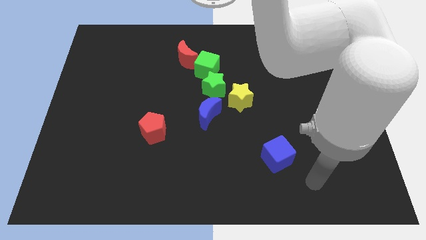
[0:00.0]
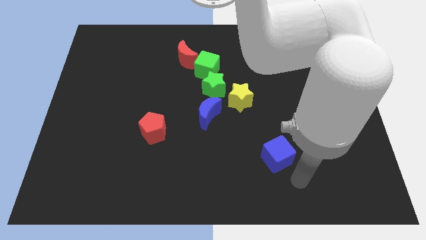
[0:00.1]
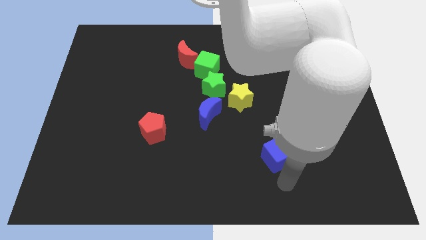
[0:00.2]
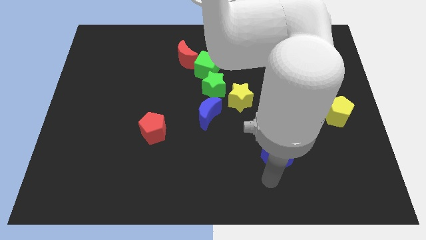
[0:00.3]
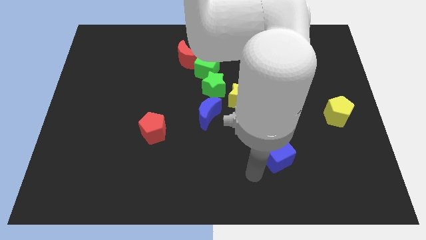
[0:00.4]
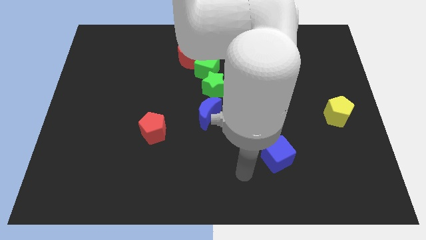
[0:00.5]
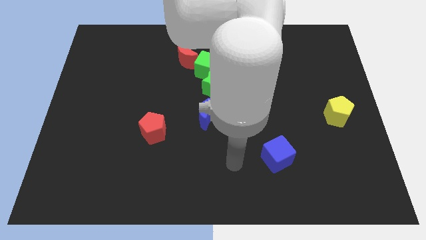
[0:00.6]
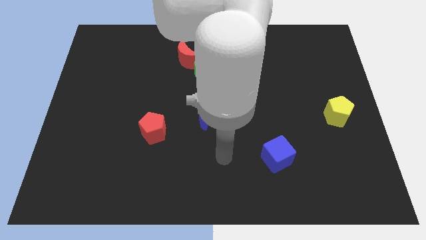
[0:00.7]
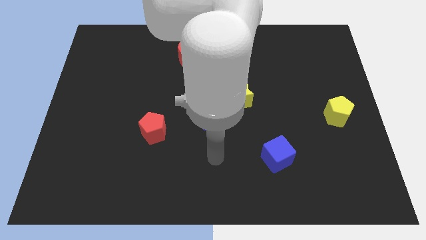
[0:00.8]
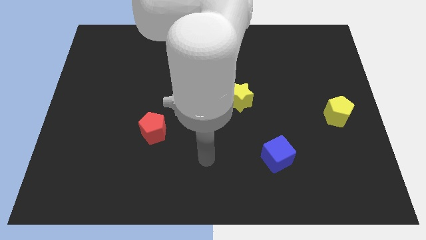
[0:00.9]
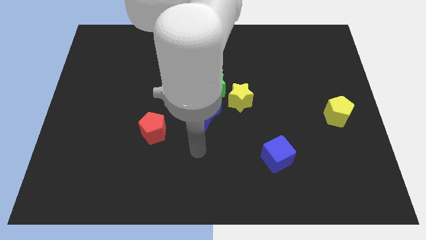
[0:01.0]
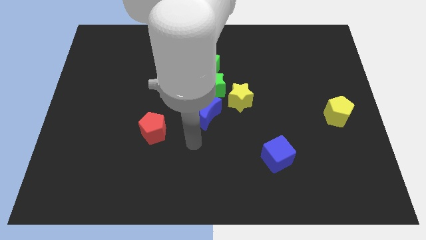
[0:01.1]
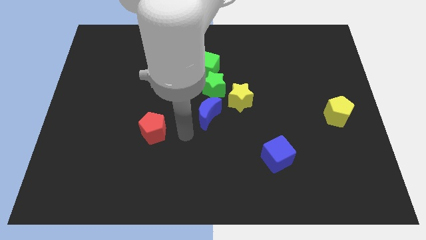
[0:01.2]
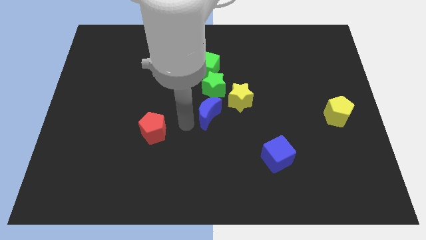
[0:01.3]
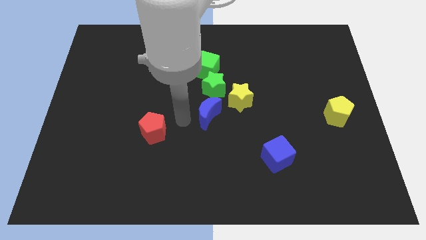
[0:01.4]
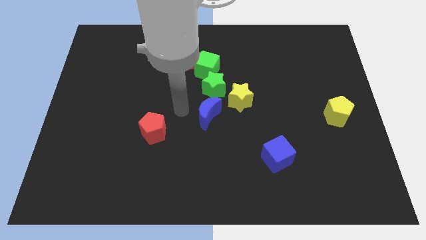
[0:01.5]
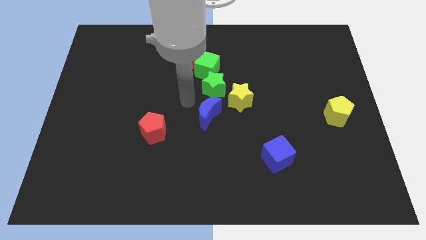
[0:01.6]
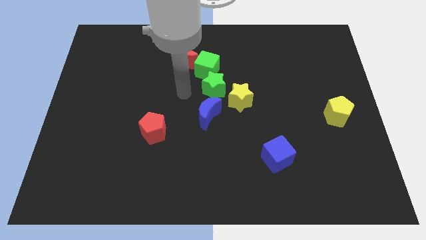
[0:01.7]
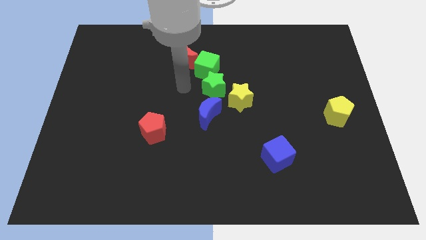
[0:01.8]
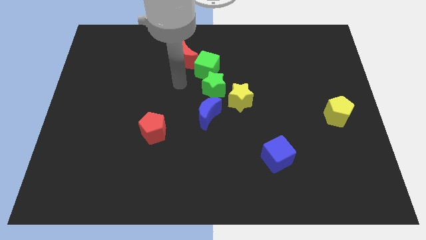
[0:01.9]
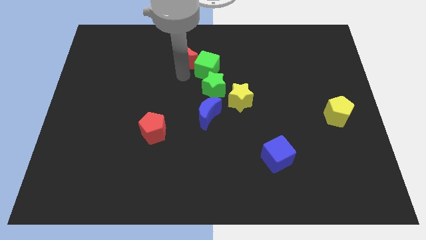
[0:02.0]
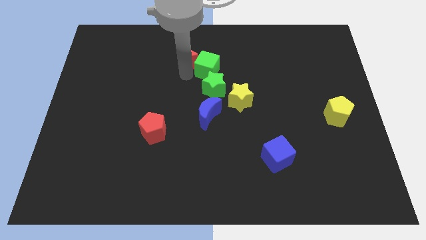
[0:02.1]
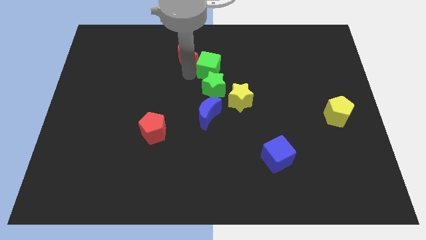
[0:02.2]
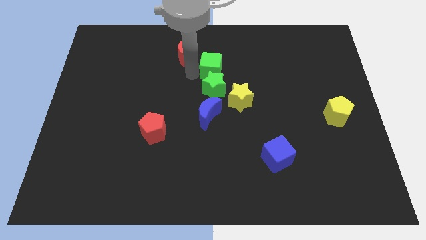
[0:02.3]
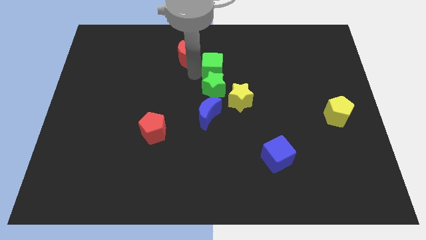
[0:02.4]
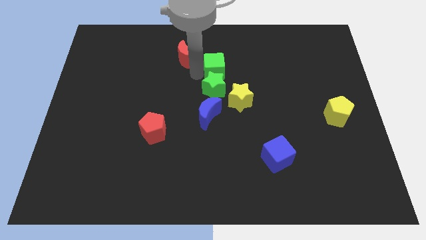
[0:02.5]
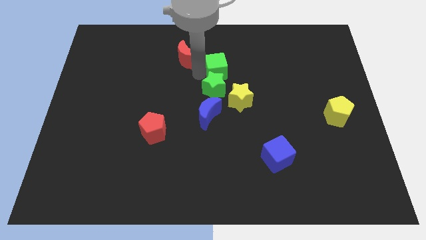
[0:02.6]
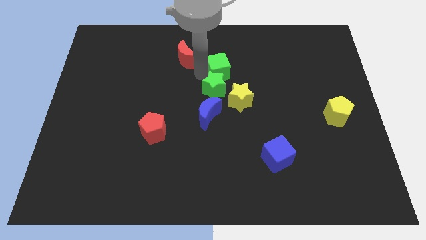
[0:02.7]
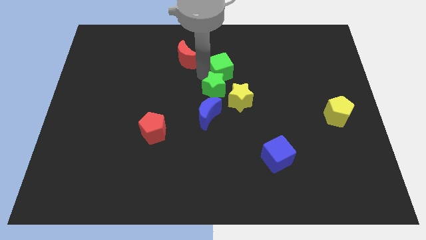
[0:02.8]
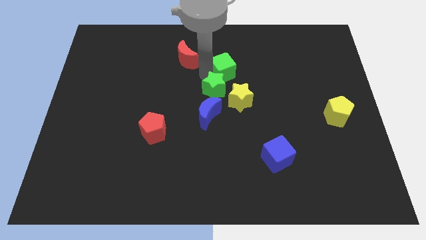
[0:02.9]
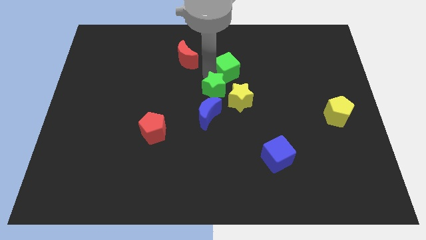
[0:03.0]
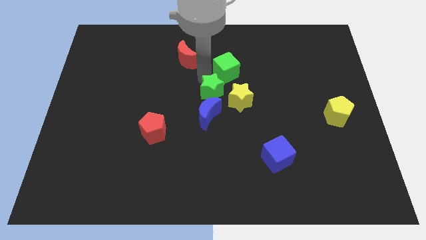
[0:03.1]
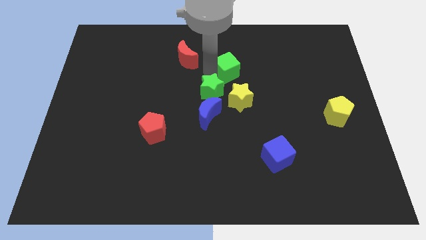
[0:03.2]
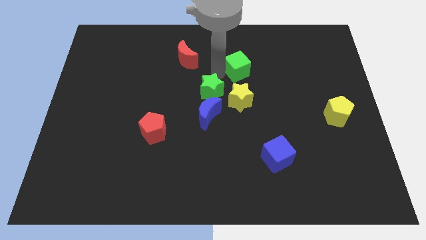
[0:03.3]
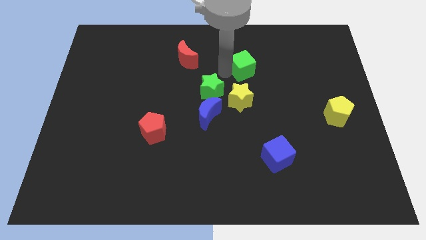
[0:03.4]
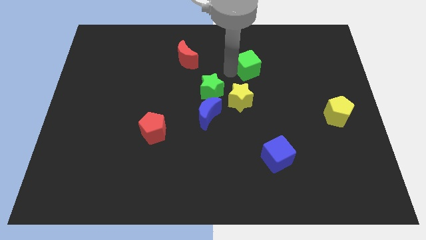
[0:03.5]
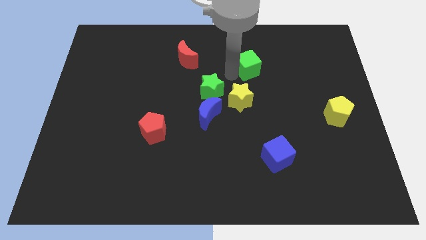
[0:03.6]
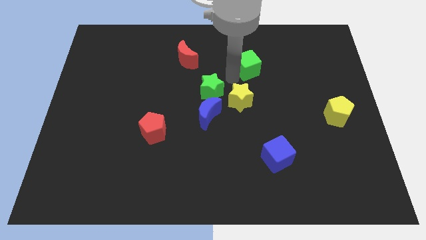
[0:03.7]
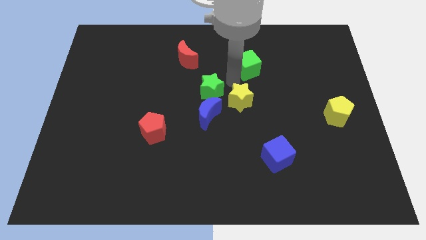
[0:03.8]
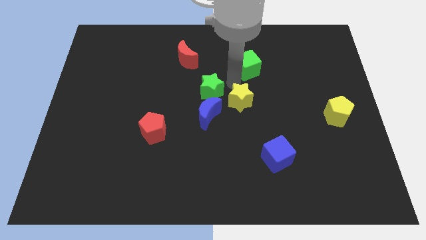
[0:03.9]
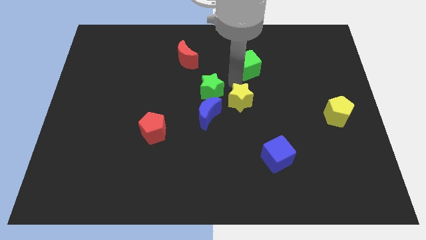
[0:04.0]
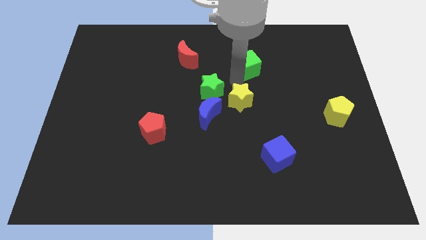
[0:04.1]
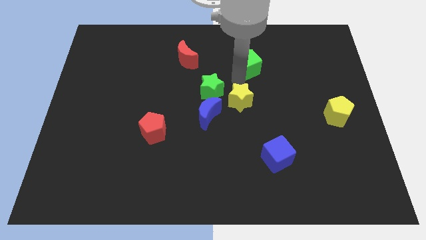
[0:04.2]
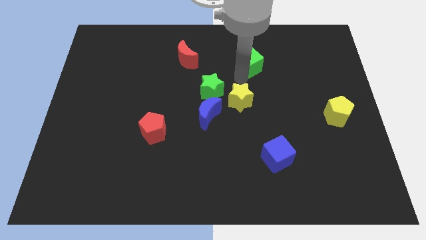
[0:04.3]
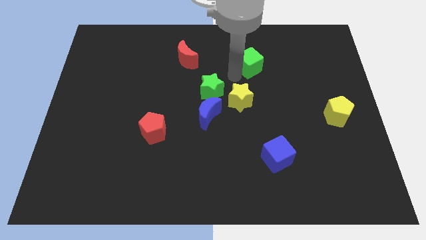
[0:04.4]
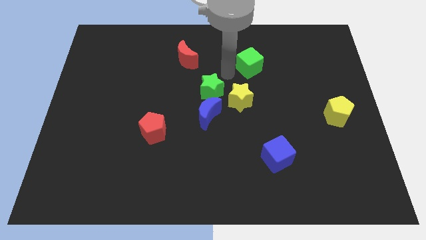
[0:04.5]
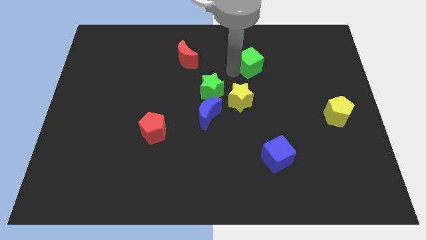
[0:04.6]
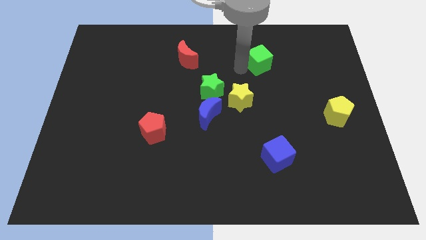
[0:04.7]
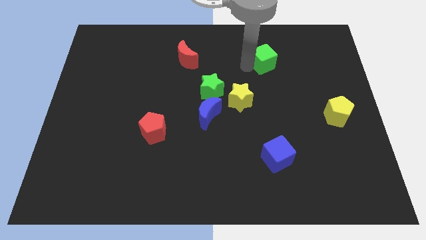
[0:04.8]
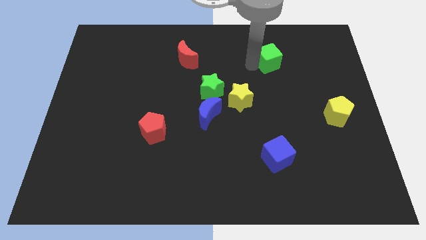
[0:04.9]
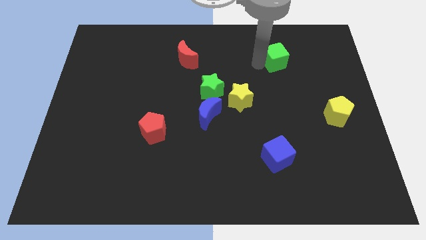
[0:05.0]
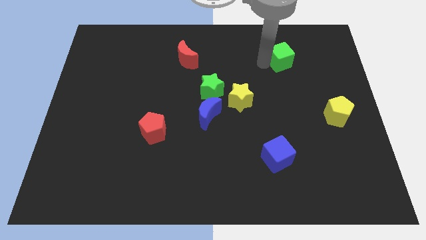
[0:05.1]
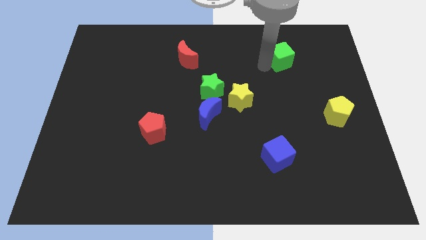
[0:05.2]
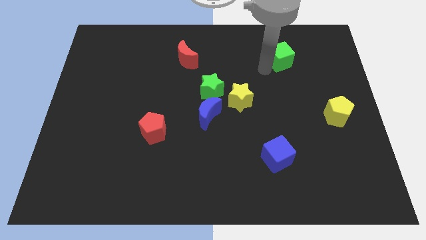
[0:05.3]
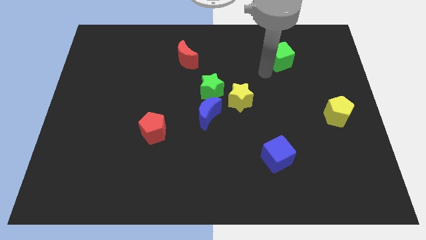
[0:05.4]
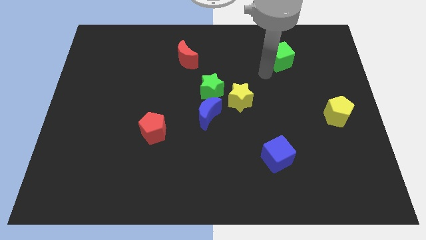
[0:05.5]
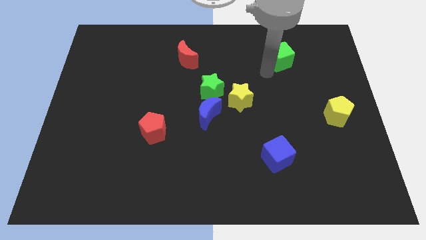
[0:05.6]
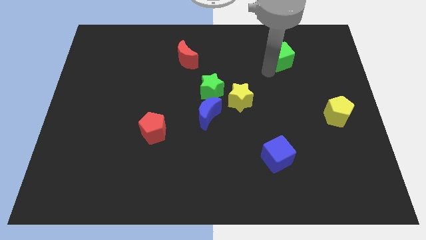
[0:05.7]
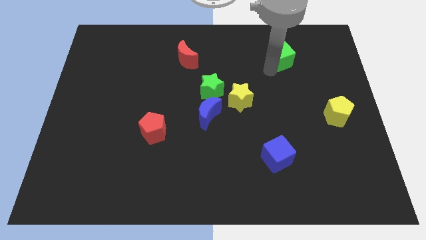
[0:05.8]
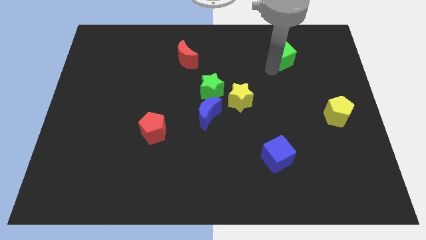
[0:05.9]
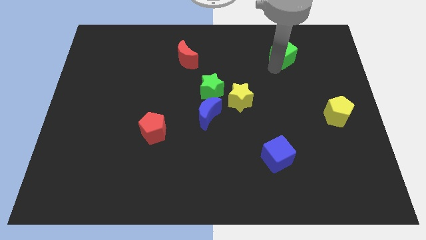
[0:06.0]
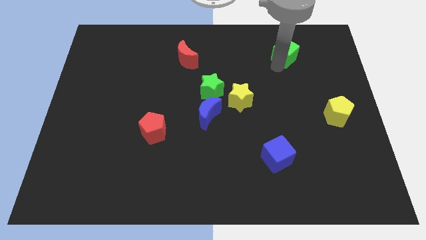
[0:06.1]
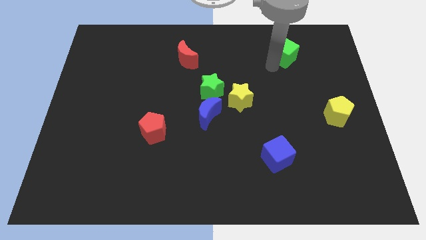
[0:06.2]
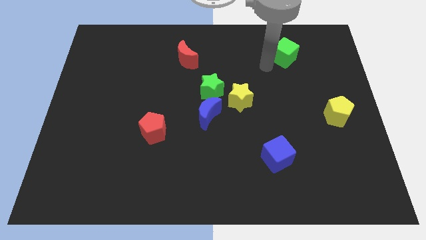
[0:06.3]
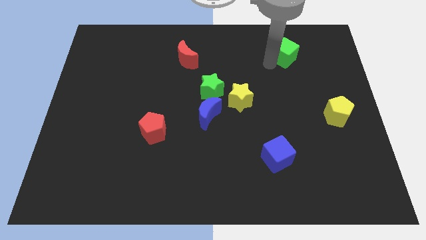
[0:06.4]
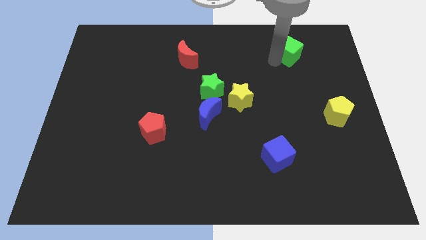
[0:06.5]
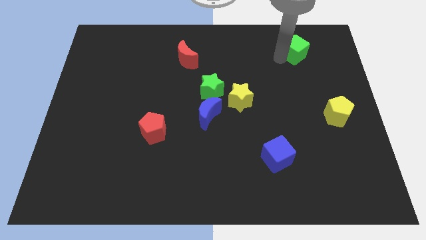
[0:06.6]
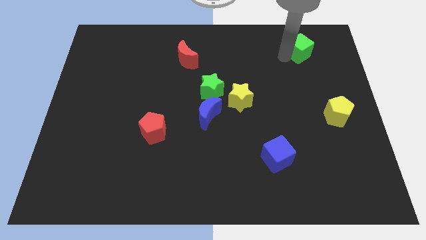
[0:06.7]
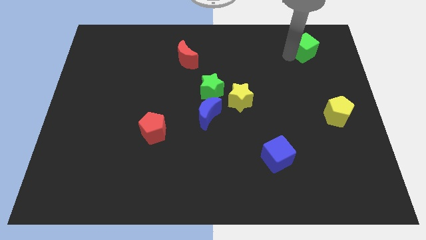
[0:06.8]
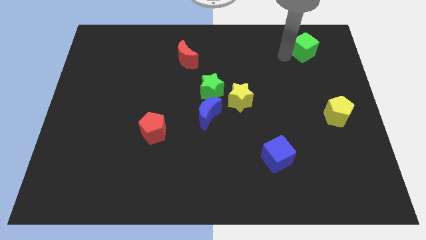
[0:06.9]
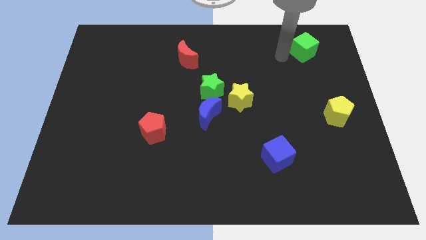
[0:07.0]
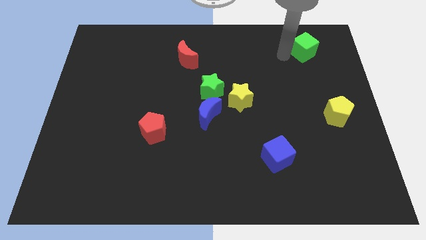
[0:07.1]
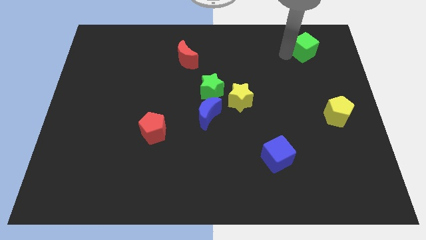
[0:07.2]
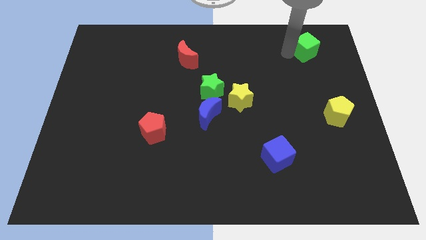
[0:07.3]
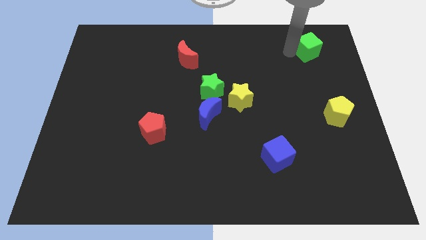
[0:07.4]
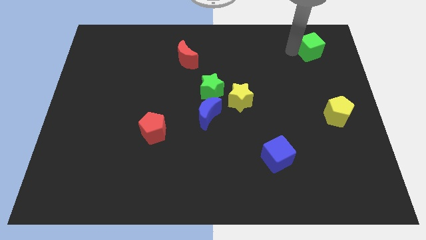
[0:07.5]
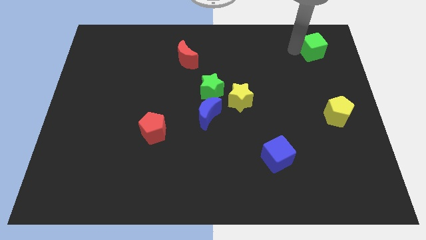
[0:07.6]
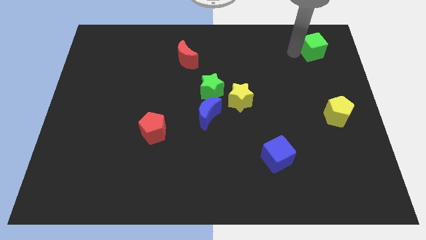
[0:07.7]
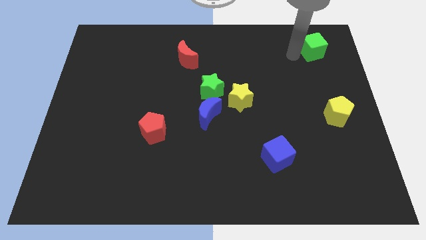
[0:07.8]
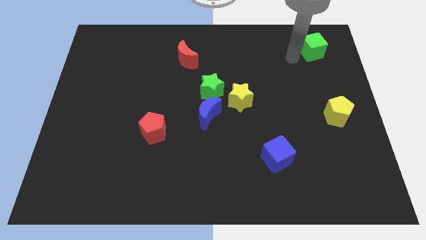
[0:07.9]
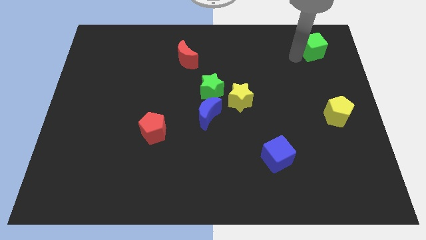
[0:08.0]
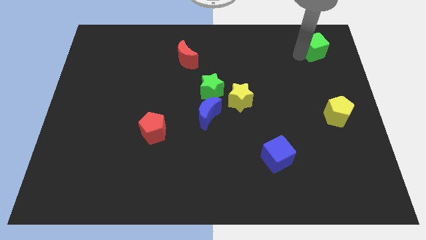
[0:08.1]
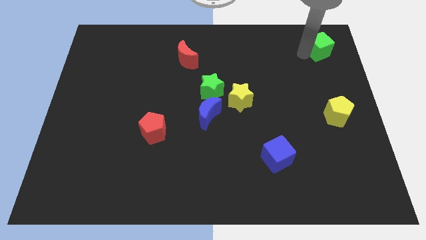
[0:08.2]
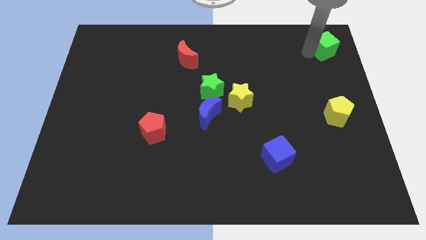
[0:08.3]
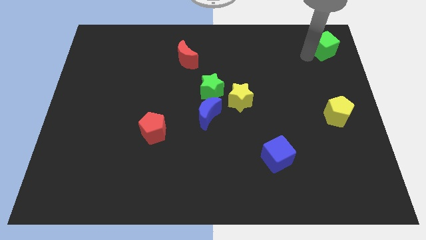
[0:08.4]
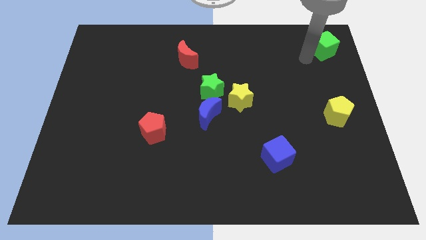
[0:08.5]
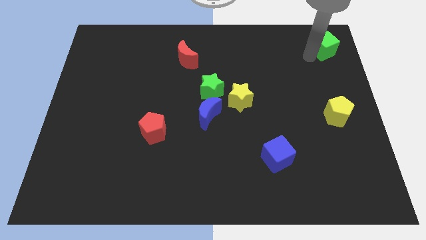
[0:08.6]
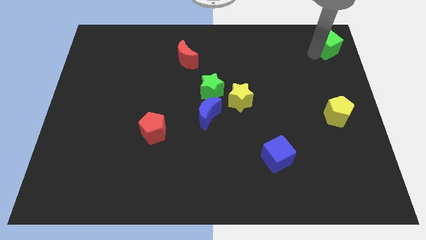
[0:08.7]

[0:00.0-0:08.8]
move the green cube to the top right corner
